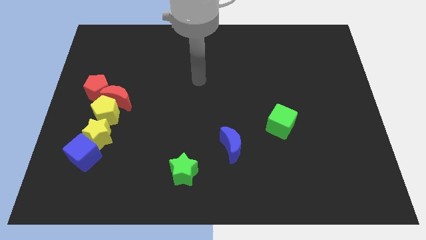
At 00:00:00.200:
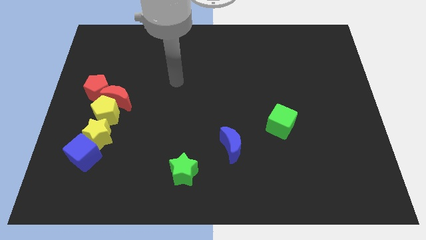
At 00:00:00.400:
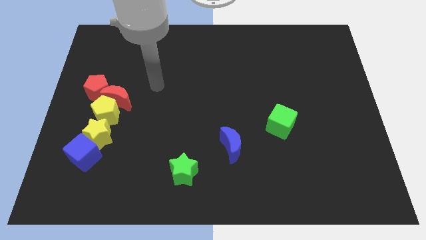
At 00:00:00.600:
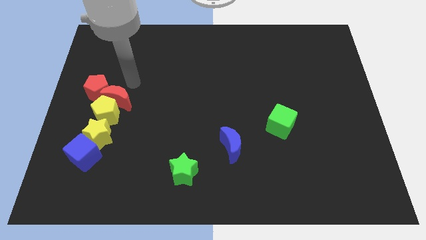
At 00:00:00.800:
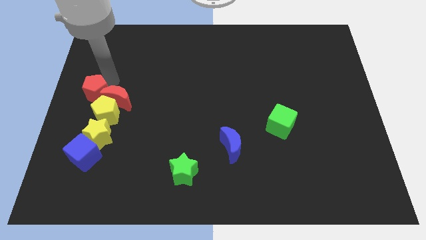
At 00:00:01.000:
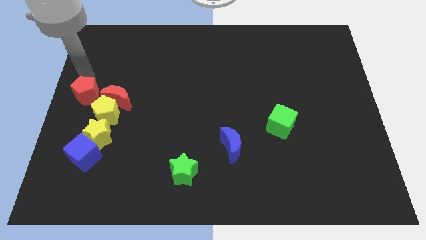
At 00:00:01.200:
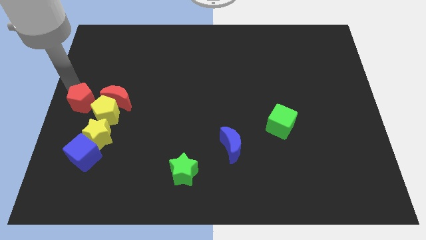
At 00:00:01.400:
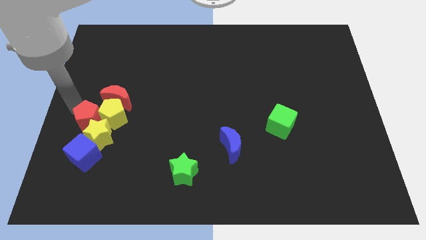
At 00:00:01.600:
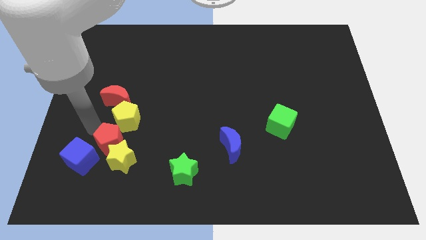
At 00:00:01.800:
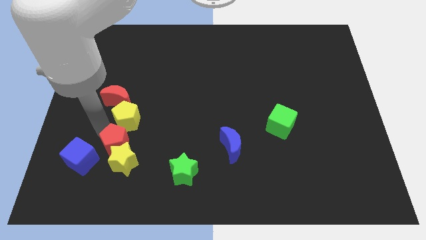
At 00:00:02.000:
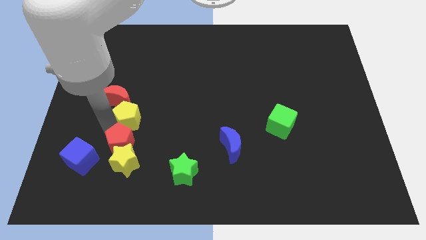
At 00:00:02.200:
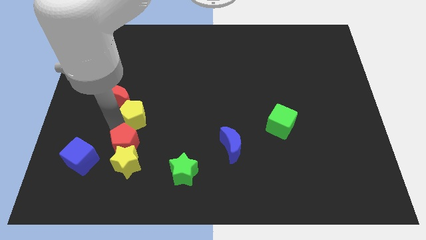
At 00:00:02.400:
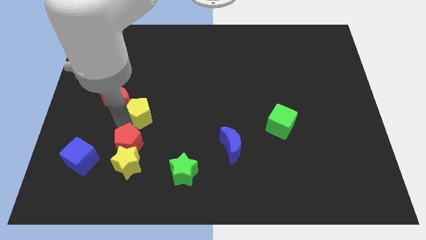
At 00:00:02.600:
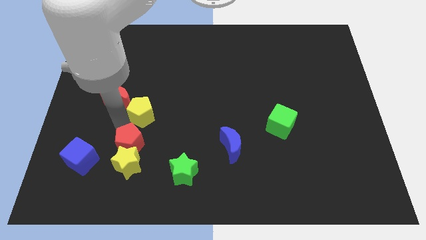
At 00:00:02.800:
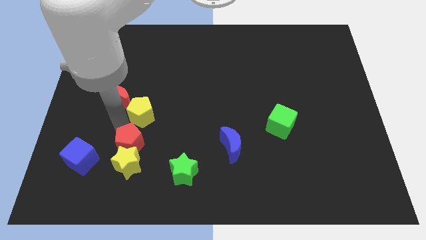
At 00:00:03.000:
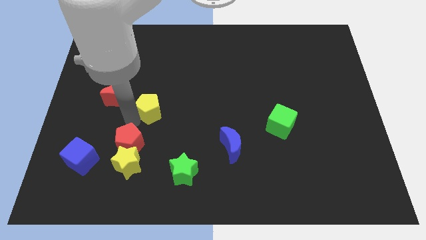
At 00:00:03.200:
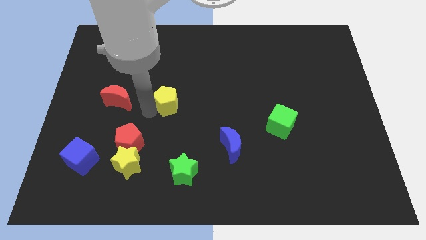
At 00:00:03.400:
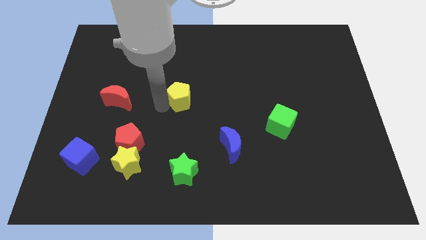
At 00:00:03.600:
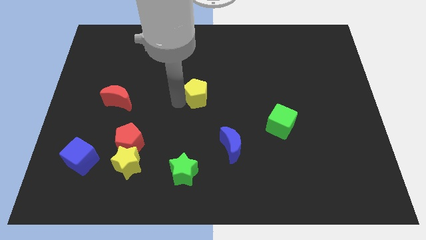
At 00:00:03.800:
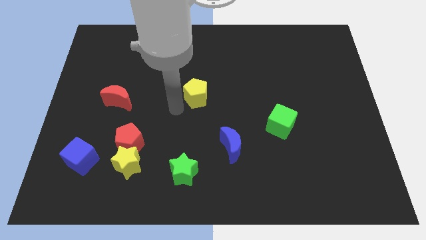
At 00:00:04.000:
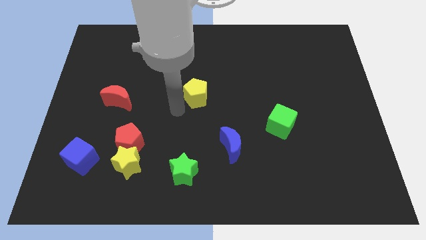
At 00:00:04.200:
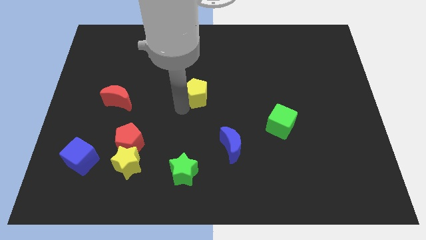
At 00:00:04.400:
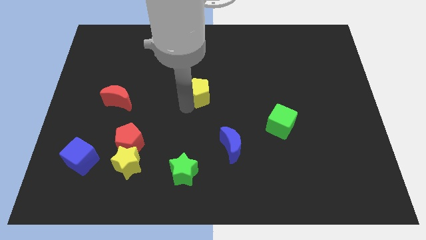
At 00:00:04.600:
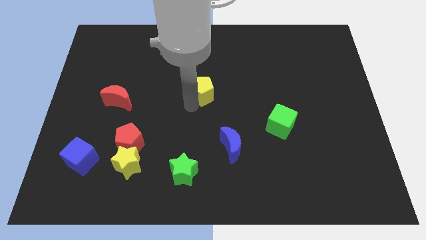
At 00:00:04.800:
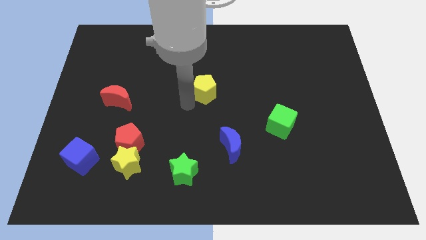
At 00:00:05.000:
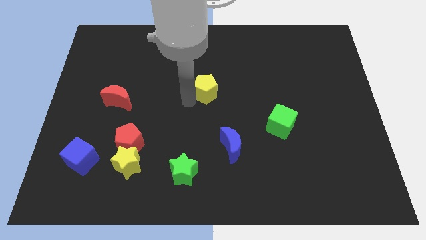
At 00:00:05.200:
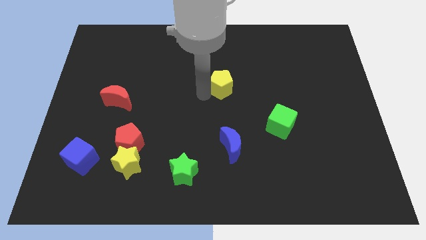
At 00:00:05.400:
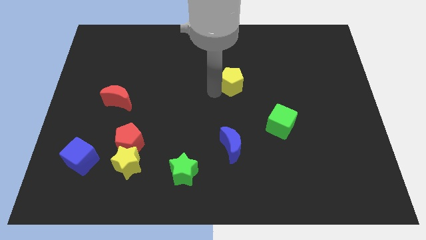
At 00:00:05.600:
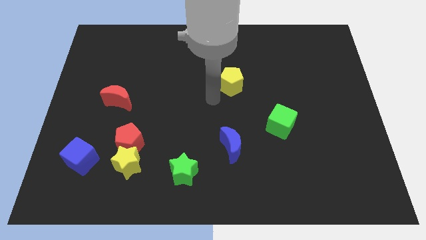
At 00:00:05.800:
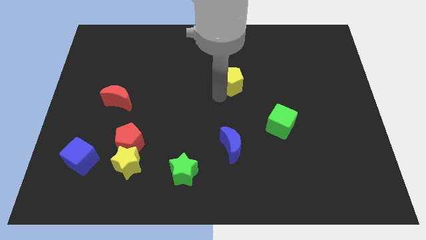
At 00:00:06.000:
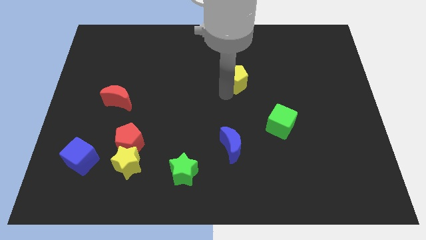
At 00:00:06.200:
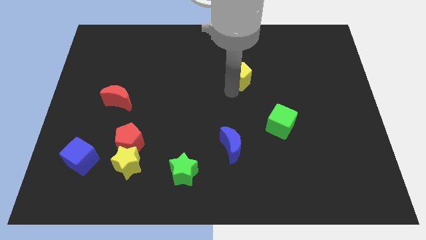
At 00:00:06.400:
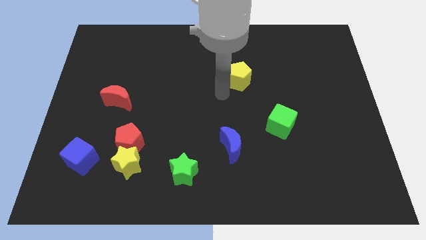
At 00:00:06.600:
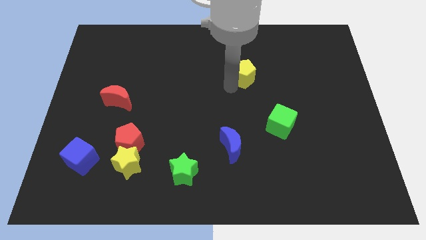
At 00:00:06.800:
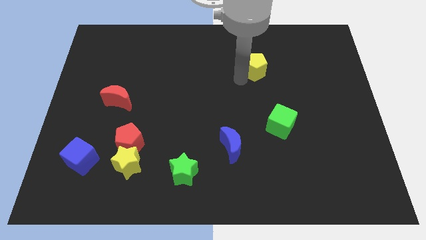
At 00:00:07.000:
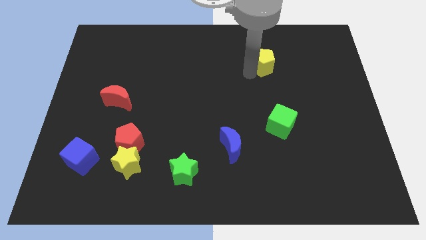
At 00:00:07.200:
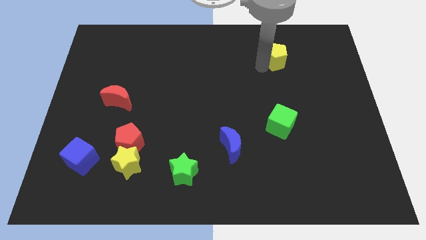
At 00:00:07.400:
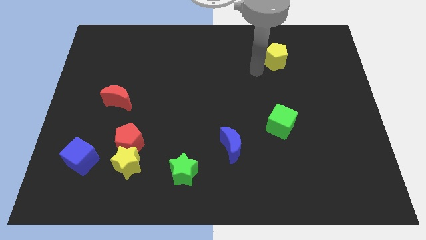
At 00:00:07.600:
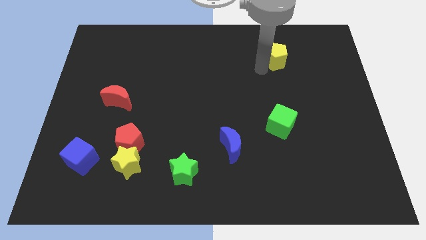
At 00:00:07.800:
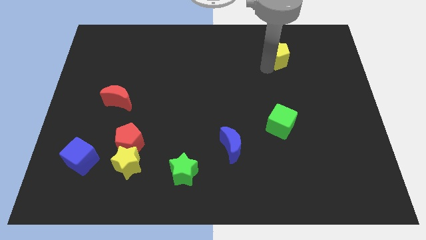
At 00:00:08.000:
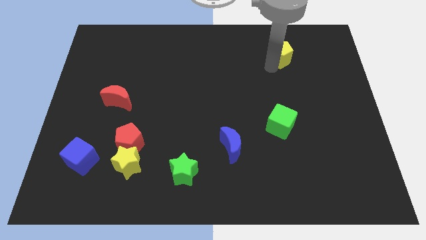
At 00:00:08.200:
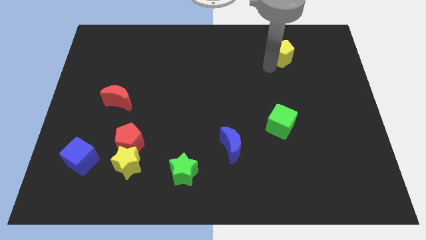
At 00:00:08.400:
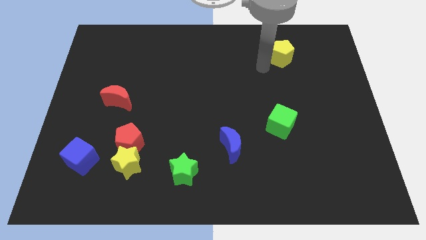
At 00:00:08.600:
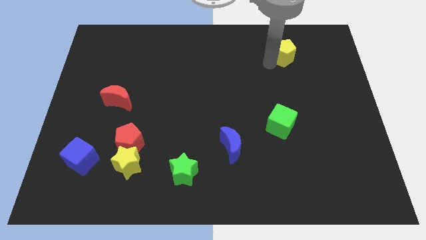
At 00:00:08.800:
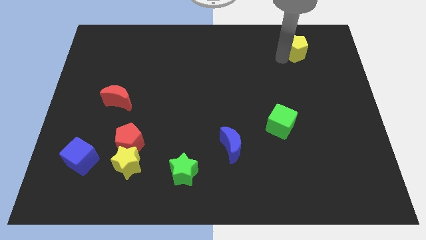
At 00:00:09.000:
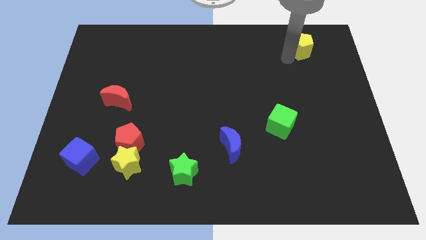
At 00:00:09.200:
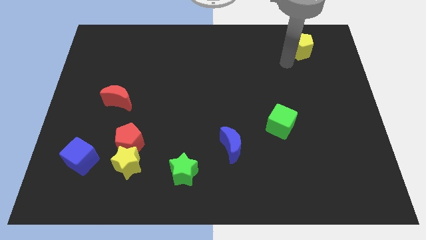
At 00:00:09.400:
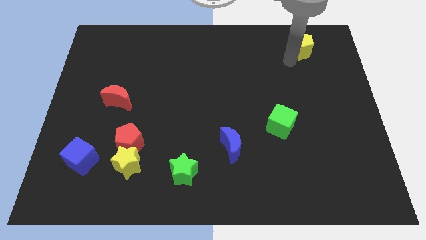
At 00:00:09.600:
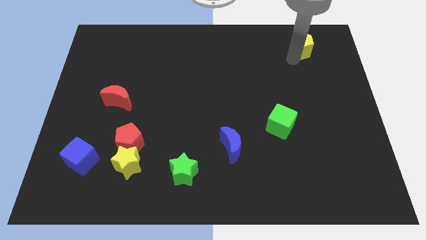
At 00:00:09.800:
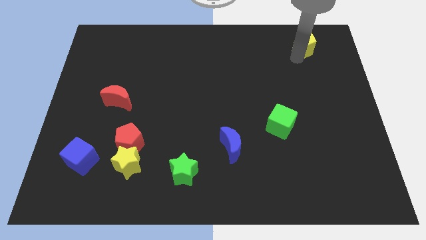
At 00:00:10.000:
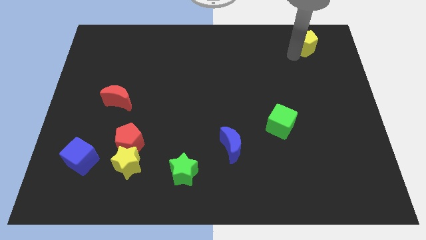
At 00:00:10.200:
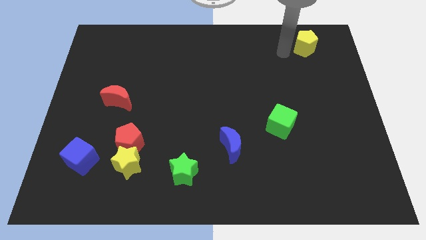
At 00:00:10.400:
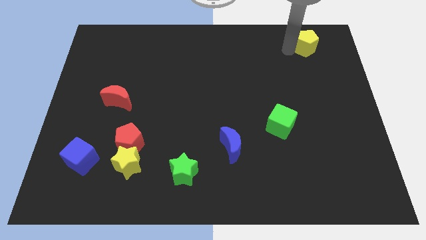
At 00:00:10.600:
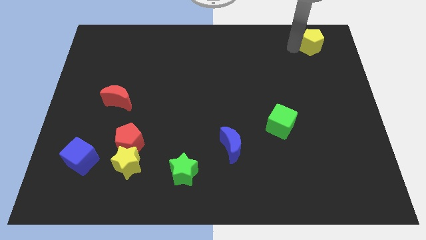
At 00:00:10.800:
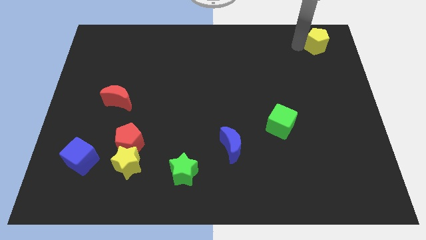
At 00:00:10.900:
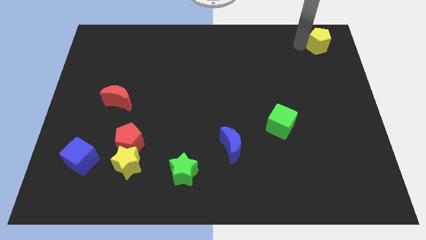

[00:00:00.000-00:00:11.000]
push the yellow pentagon to the top right of the board
